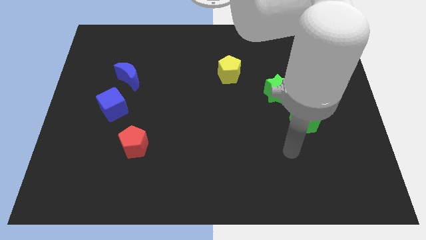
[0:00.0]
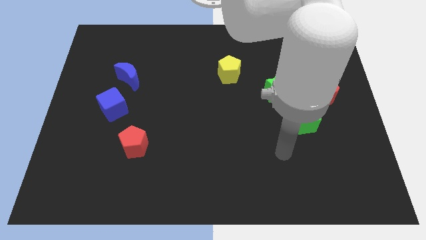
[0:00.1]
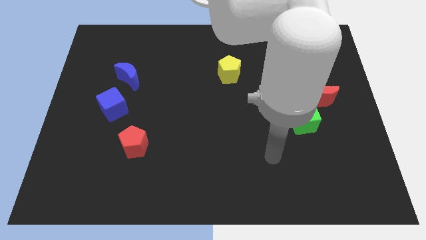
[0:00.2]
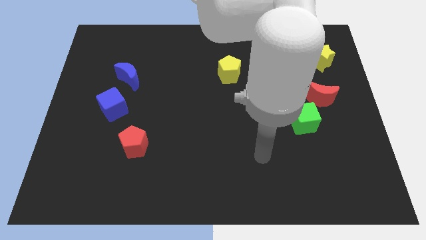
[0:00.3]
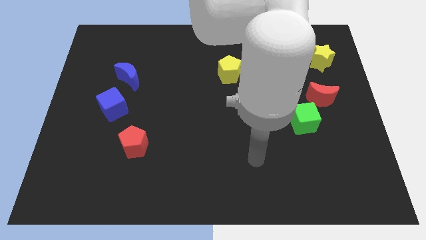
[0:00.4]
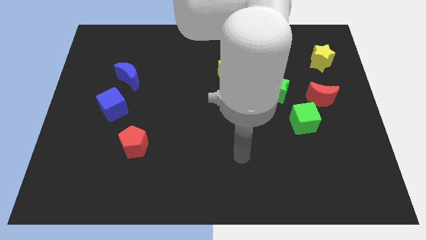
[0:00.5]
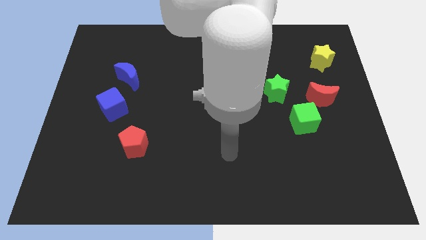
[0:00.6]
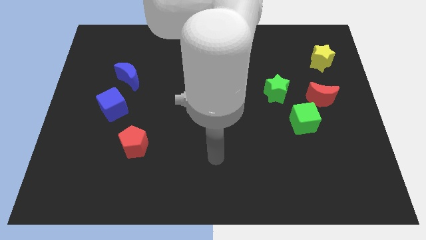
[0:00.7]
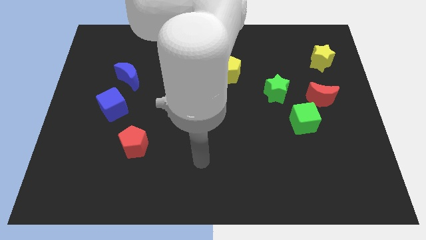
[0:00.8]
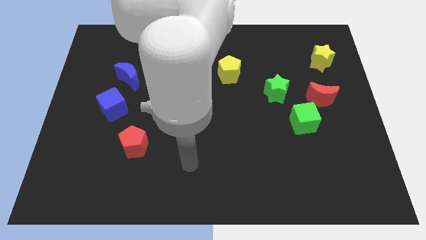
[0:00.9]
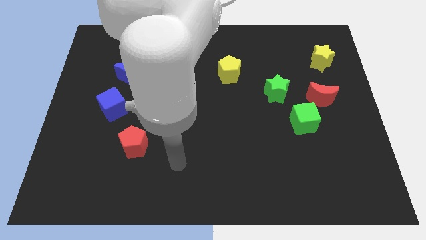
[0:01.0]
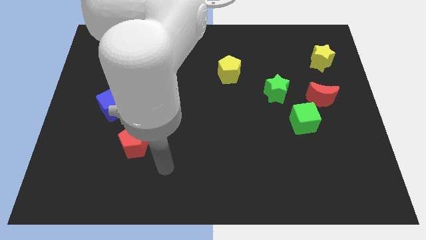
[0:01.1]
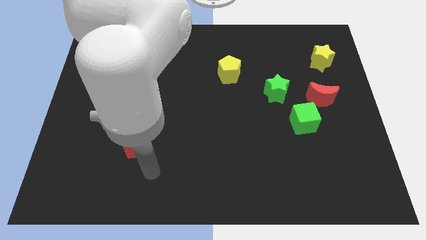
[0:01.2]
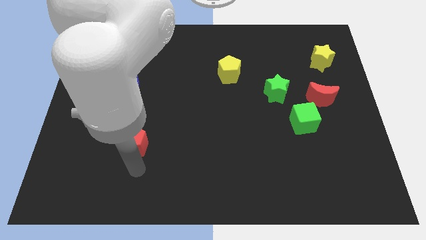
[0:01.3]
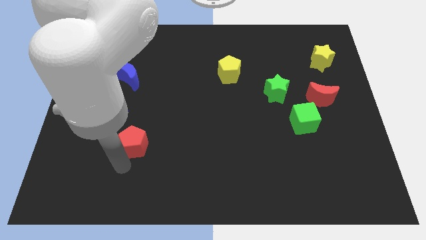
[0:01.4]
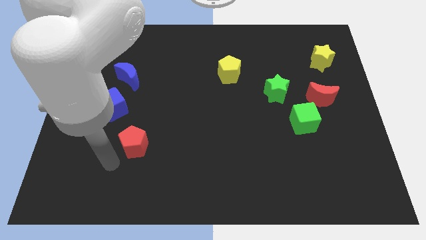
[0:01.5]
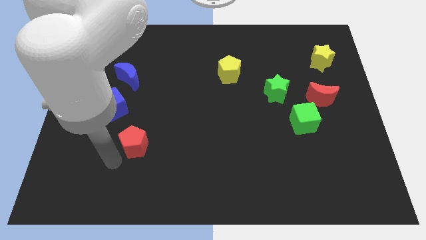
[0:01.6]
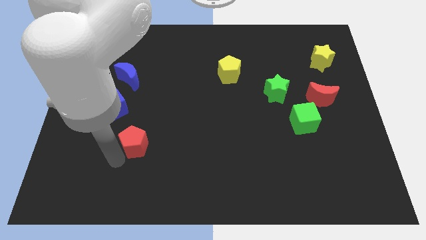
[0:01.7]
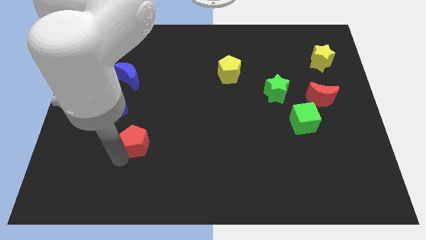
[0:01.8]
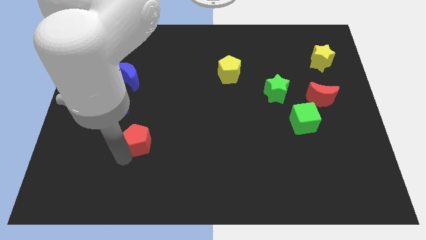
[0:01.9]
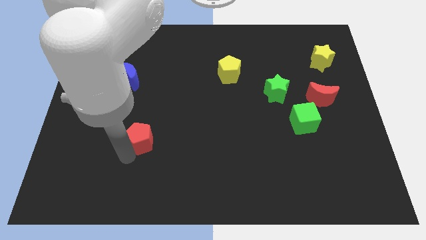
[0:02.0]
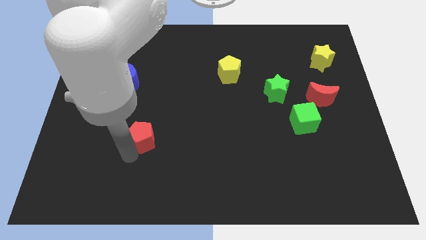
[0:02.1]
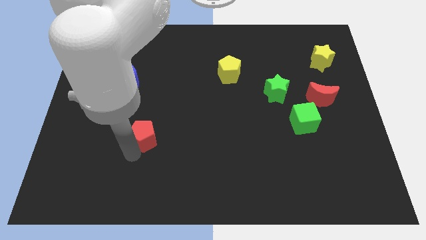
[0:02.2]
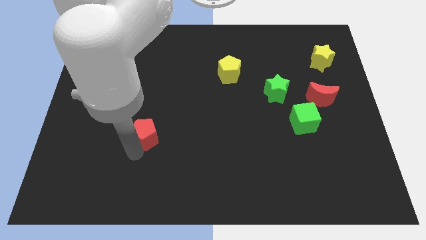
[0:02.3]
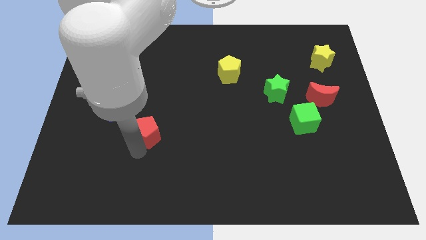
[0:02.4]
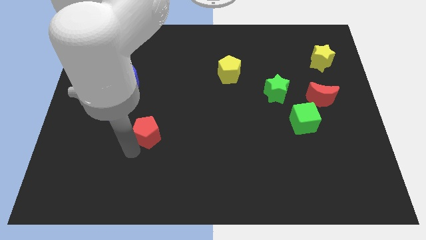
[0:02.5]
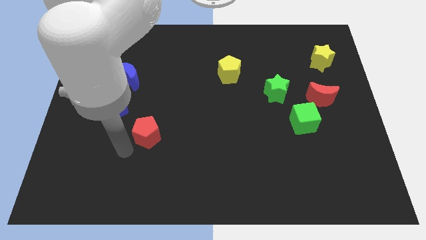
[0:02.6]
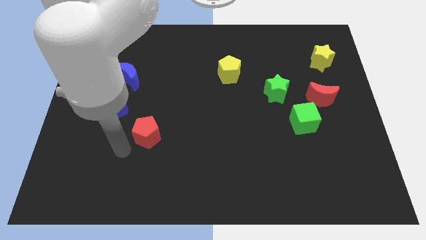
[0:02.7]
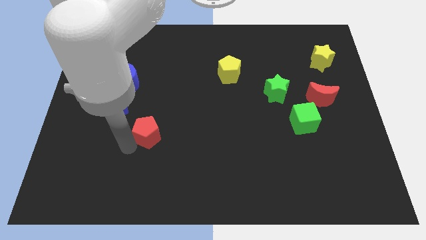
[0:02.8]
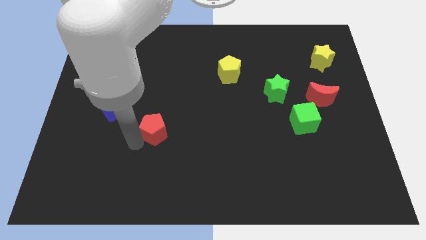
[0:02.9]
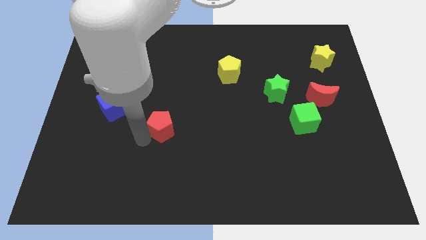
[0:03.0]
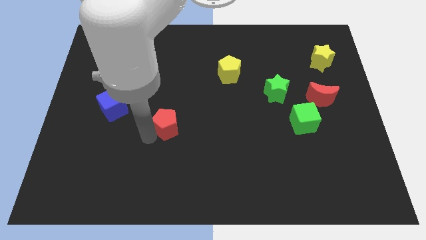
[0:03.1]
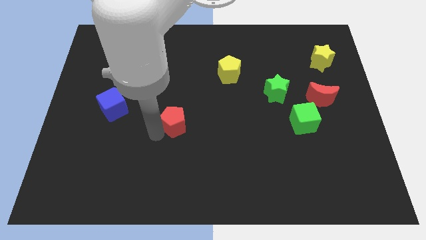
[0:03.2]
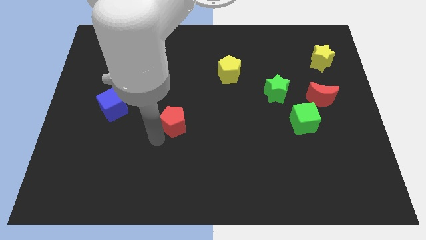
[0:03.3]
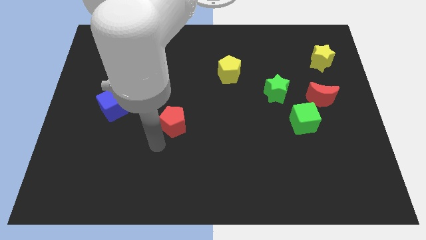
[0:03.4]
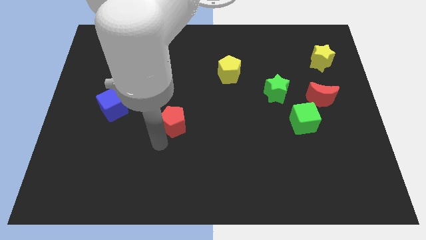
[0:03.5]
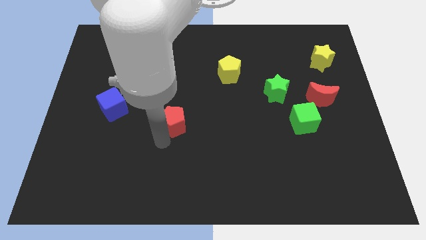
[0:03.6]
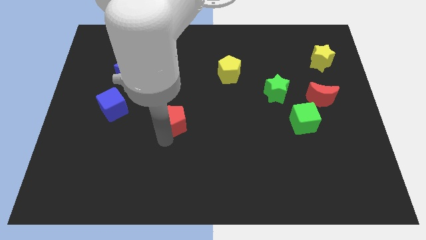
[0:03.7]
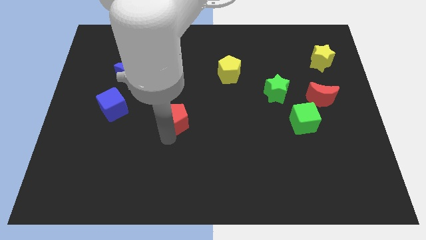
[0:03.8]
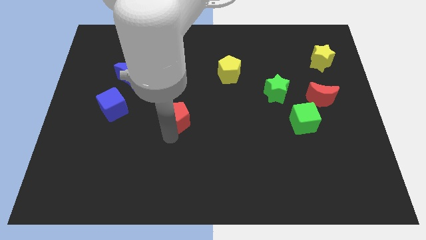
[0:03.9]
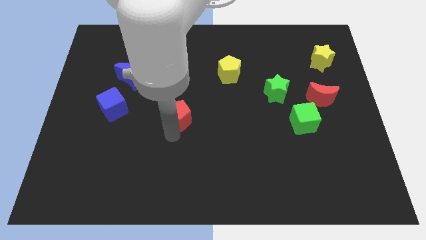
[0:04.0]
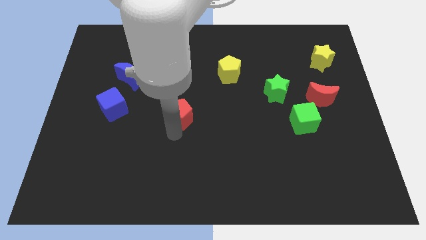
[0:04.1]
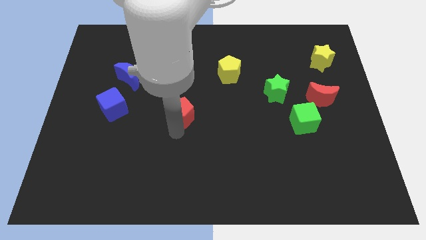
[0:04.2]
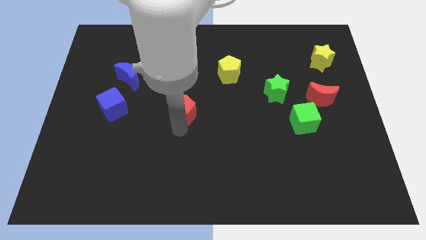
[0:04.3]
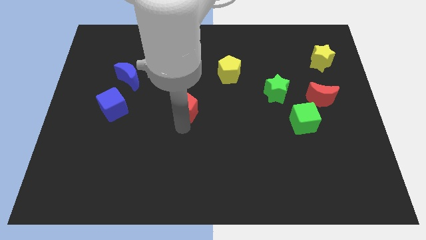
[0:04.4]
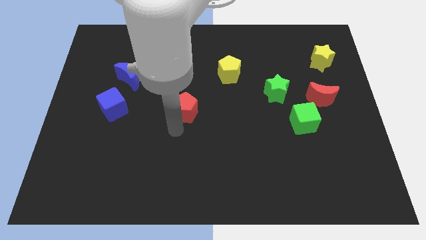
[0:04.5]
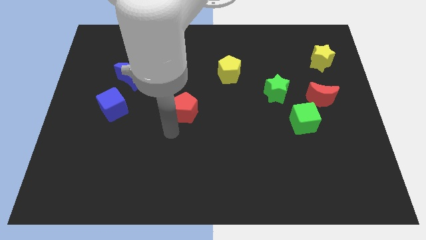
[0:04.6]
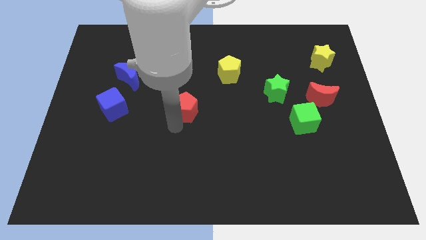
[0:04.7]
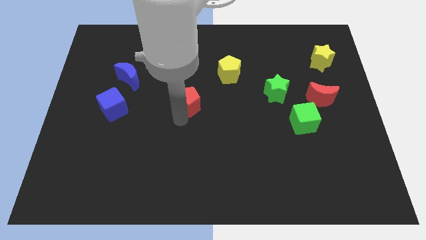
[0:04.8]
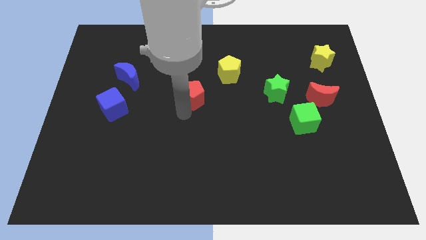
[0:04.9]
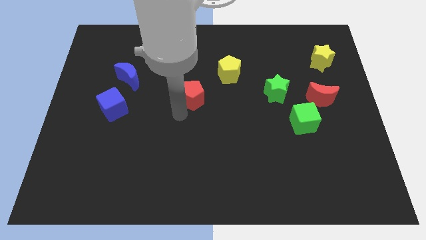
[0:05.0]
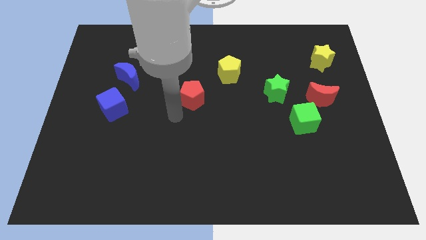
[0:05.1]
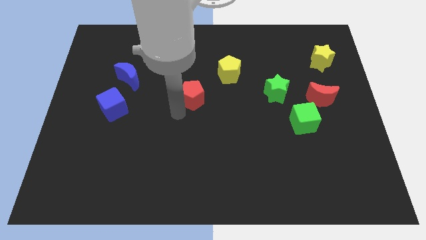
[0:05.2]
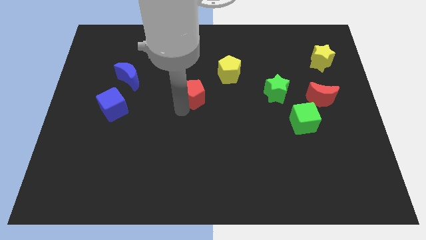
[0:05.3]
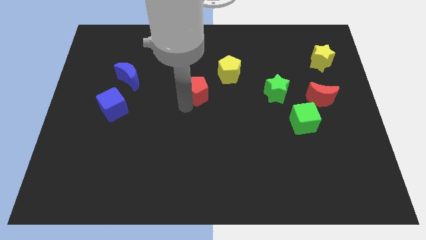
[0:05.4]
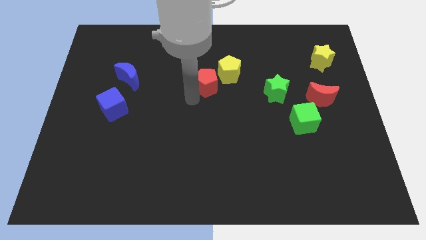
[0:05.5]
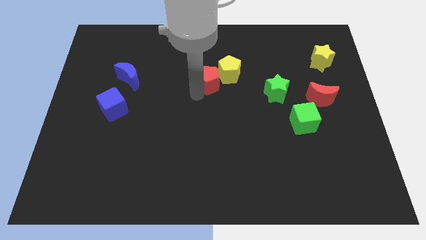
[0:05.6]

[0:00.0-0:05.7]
move the red pentagon next to the yellow pentagon

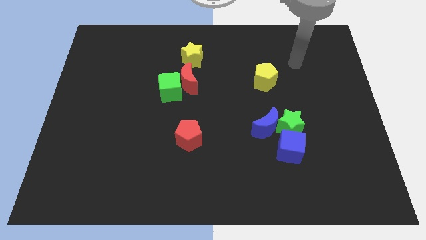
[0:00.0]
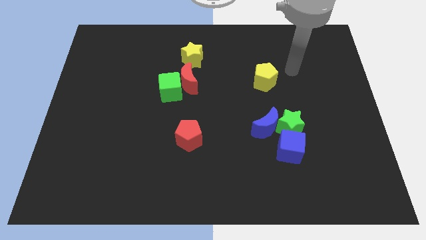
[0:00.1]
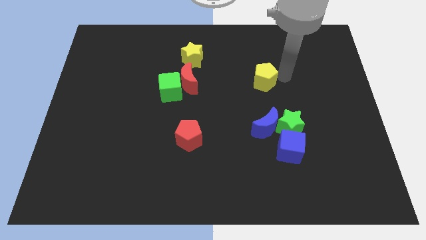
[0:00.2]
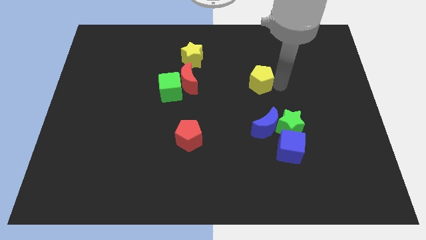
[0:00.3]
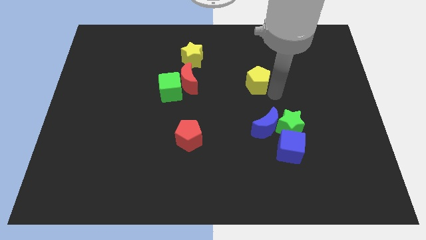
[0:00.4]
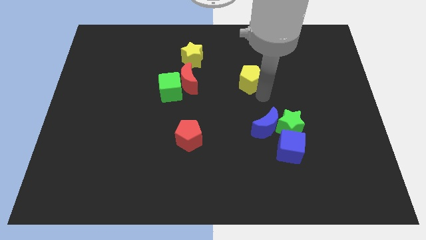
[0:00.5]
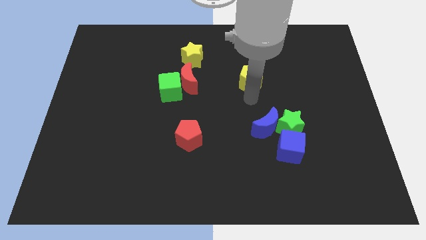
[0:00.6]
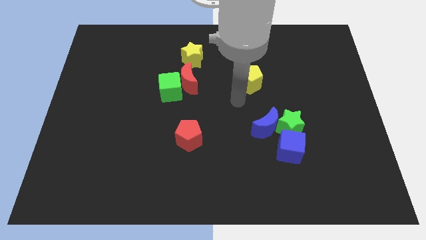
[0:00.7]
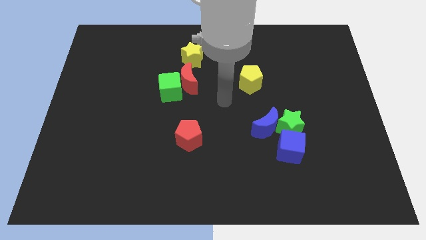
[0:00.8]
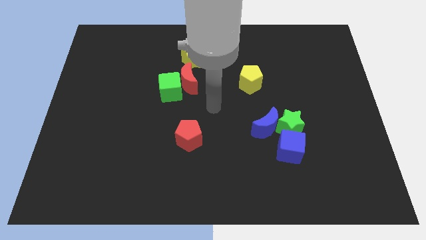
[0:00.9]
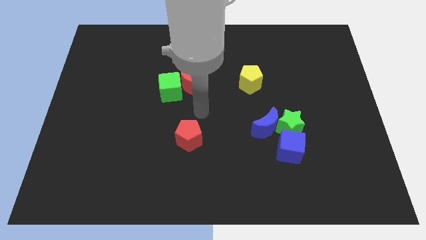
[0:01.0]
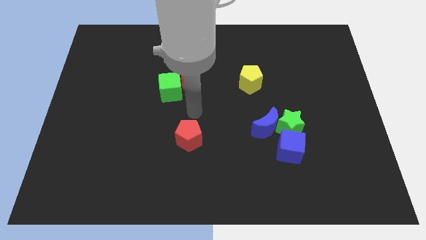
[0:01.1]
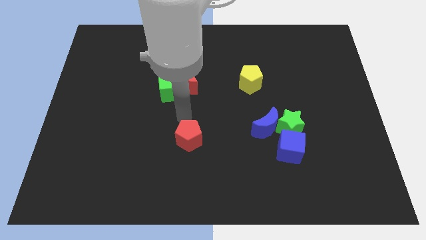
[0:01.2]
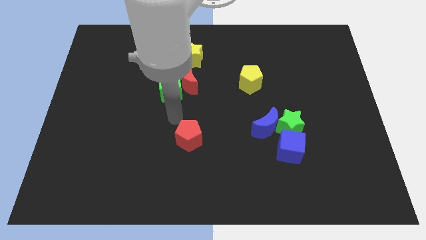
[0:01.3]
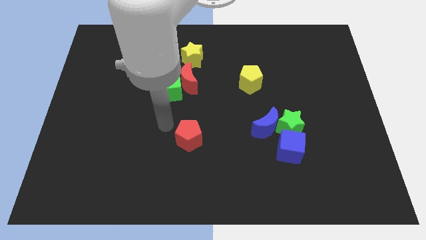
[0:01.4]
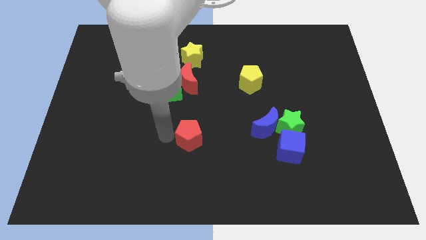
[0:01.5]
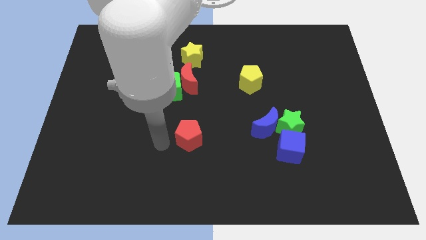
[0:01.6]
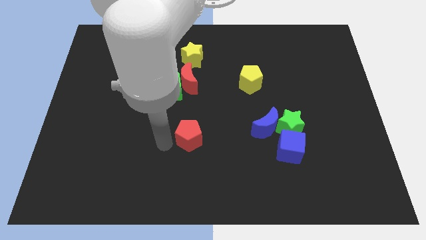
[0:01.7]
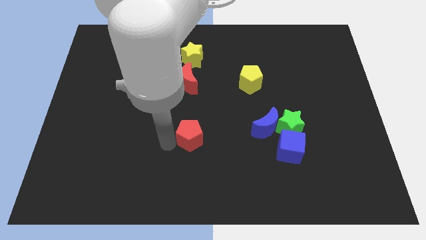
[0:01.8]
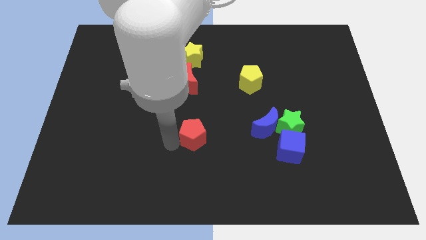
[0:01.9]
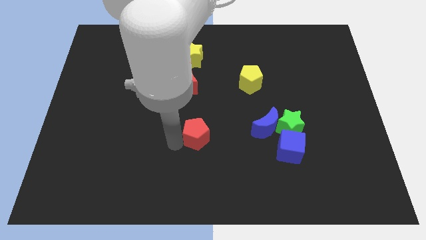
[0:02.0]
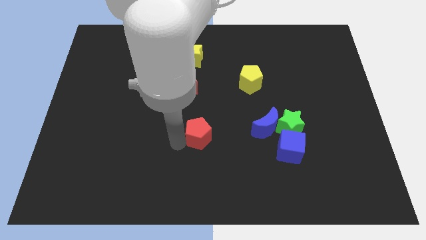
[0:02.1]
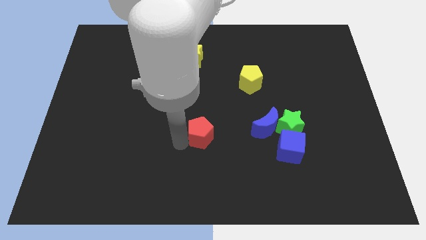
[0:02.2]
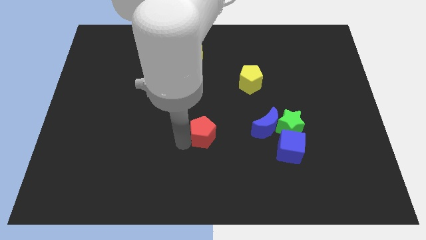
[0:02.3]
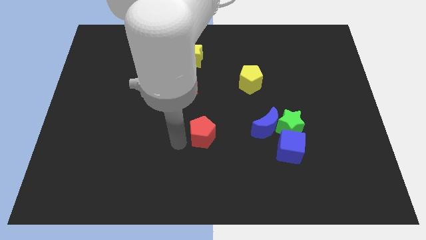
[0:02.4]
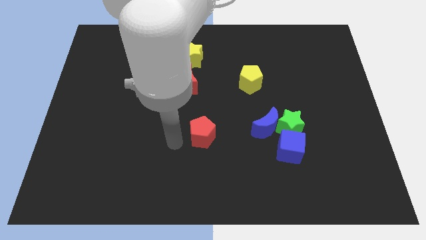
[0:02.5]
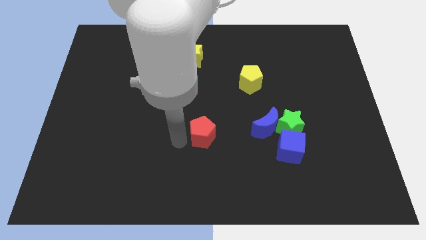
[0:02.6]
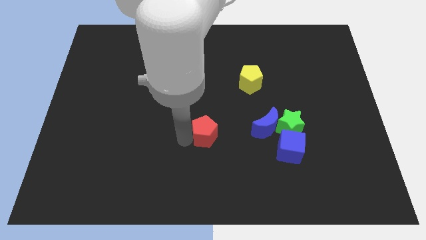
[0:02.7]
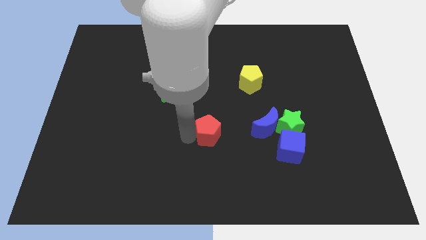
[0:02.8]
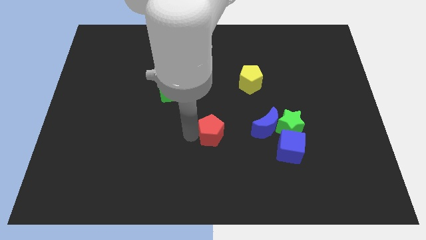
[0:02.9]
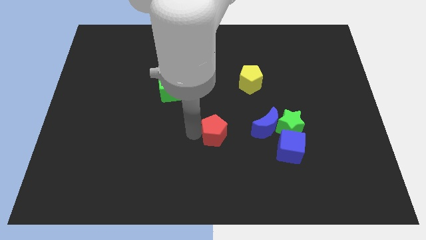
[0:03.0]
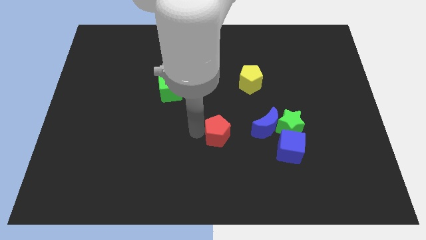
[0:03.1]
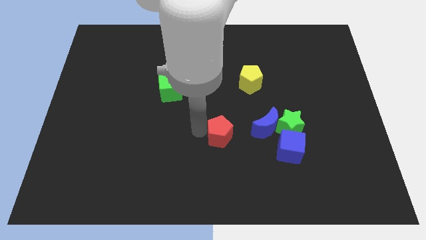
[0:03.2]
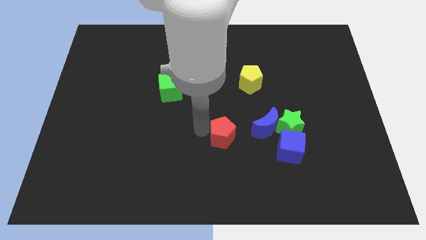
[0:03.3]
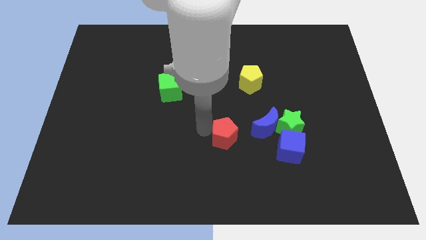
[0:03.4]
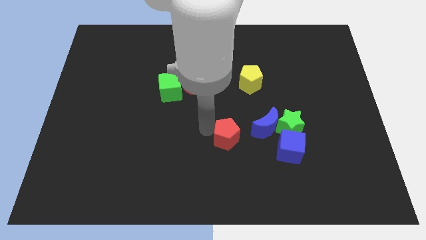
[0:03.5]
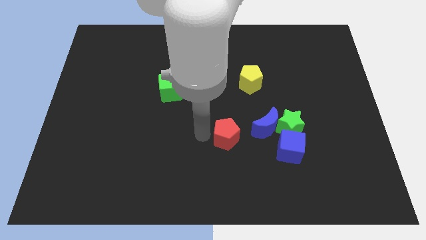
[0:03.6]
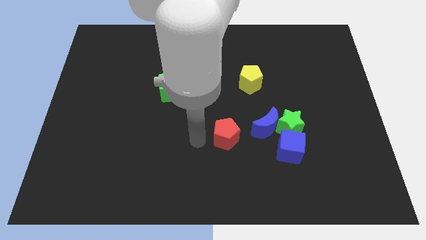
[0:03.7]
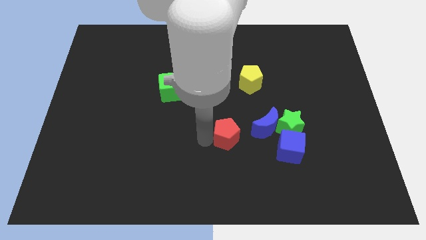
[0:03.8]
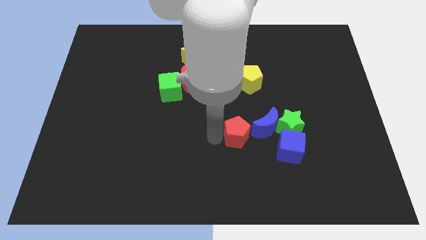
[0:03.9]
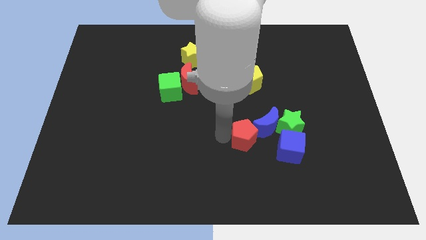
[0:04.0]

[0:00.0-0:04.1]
put the red pentagon close to the blue moon
